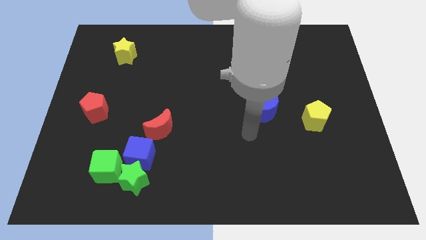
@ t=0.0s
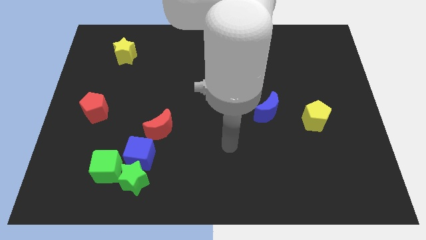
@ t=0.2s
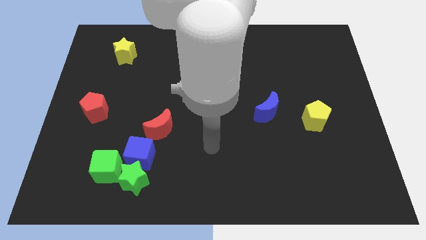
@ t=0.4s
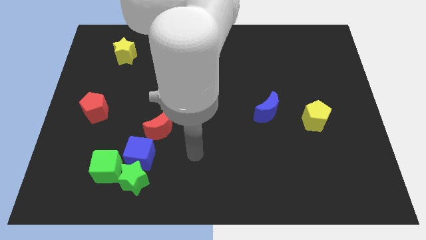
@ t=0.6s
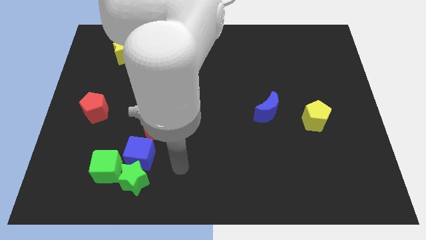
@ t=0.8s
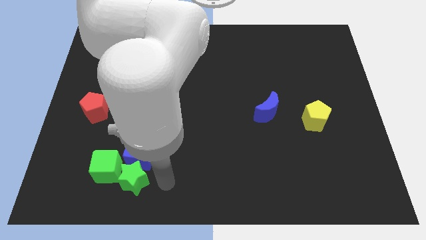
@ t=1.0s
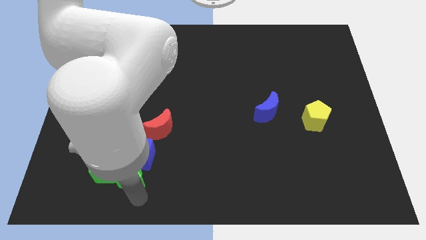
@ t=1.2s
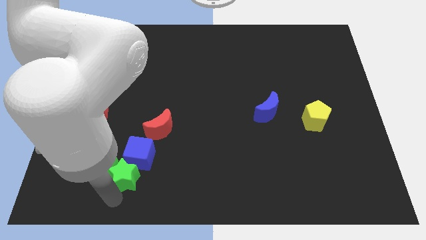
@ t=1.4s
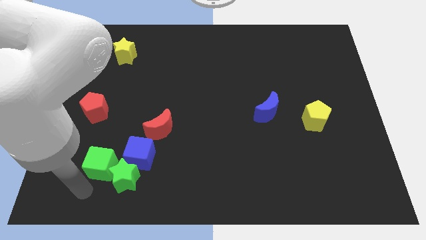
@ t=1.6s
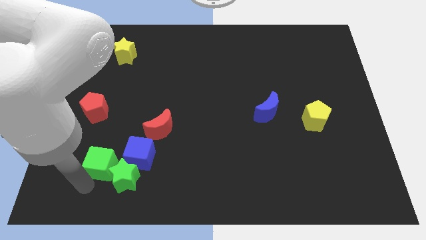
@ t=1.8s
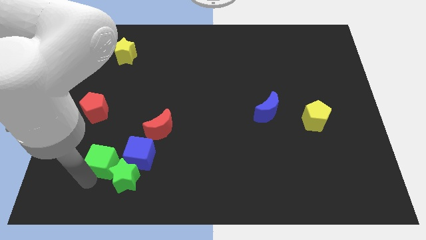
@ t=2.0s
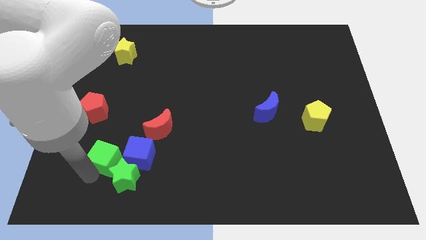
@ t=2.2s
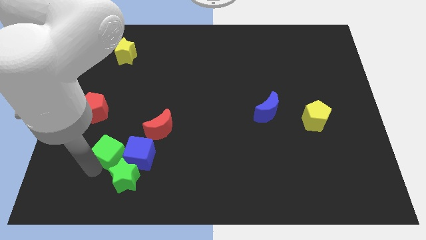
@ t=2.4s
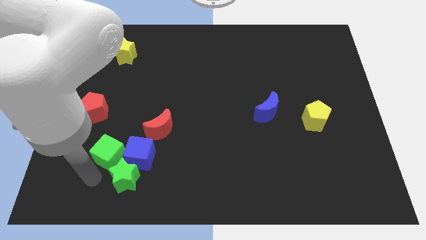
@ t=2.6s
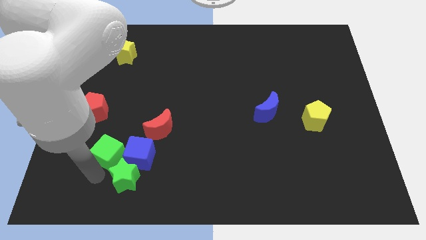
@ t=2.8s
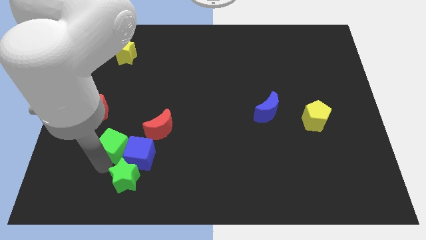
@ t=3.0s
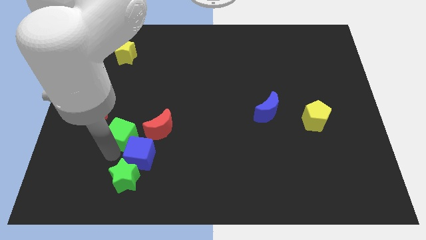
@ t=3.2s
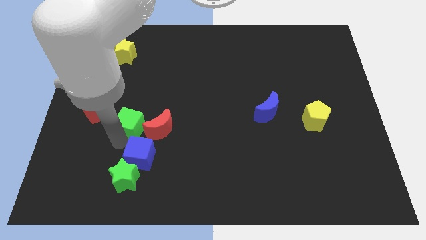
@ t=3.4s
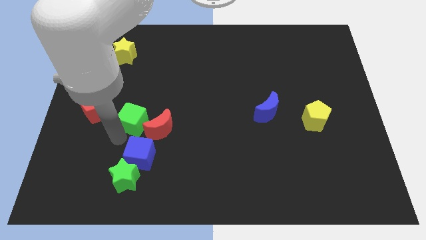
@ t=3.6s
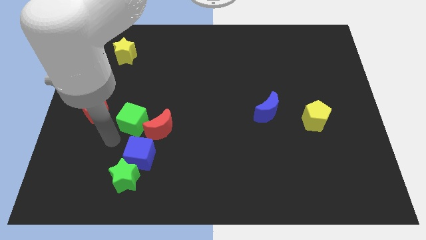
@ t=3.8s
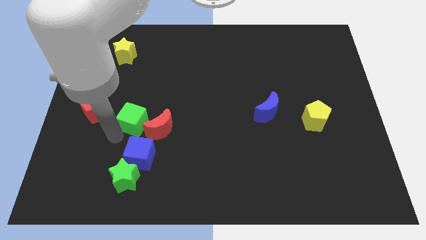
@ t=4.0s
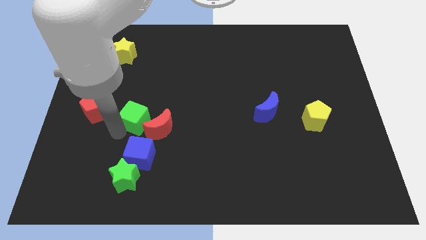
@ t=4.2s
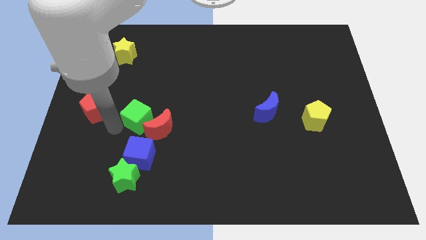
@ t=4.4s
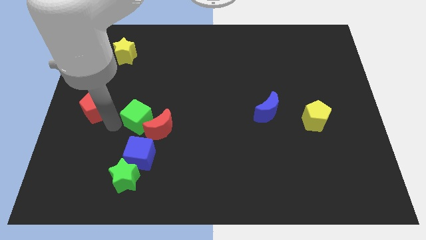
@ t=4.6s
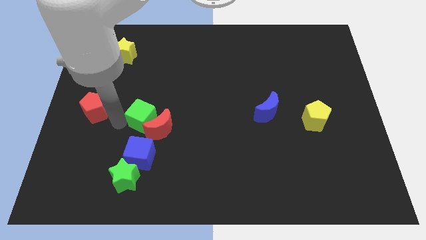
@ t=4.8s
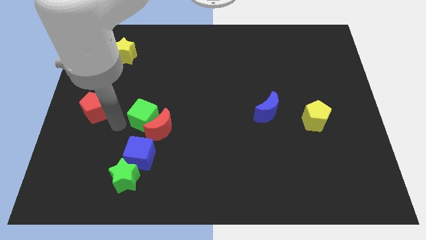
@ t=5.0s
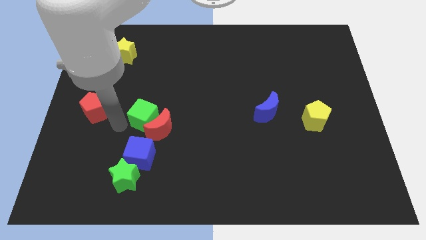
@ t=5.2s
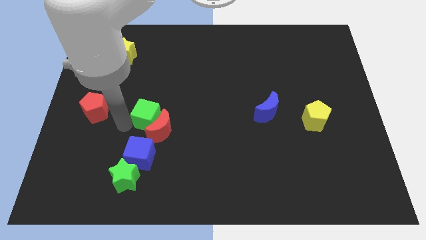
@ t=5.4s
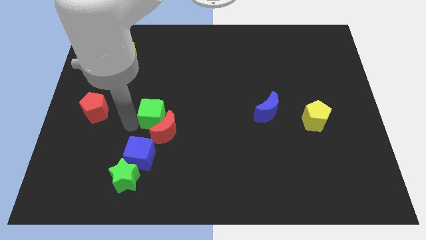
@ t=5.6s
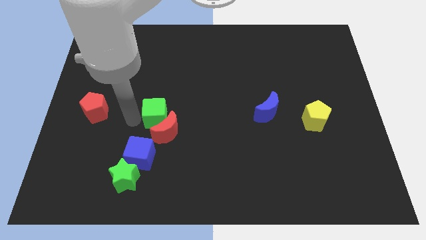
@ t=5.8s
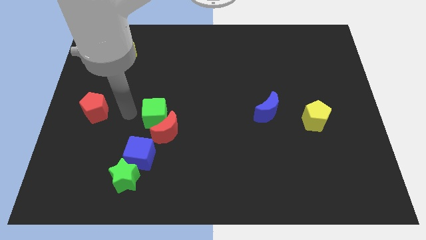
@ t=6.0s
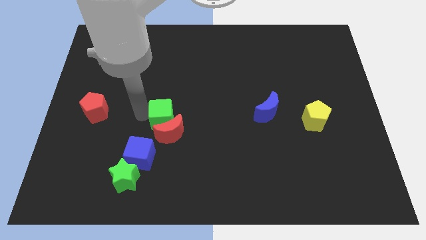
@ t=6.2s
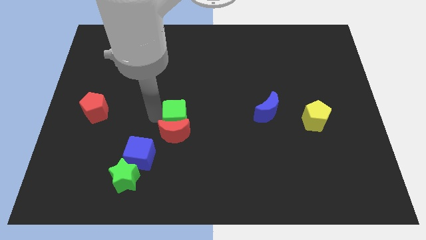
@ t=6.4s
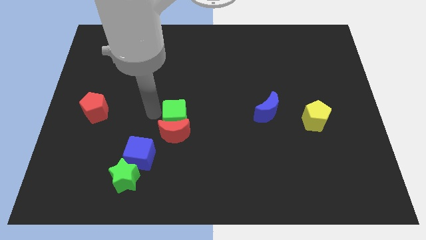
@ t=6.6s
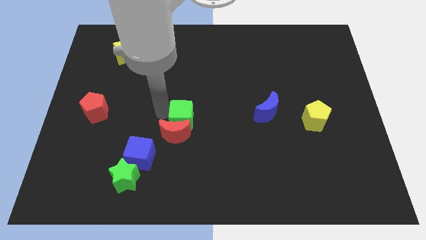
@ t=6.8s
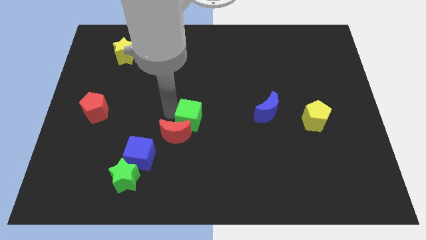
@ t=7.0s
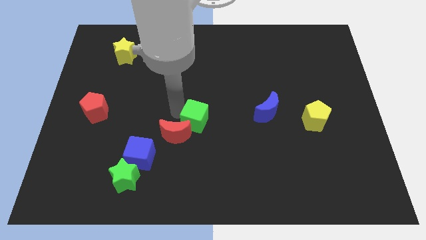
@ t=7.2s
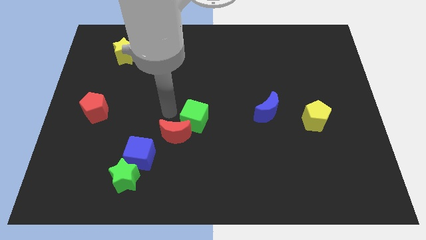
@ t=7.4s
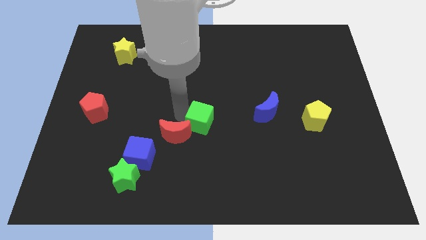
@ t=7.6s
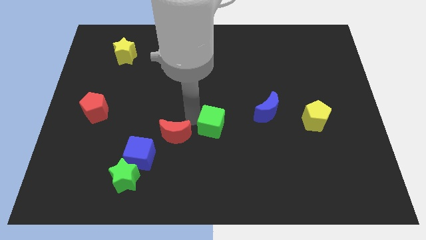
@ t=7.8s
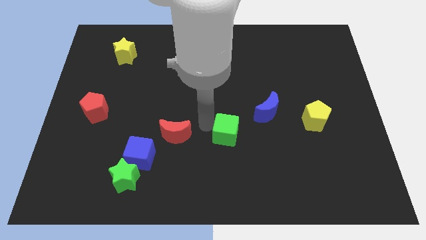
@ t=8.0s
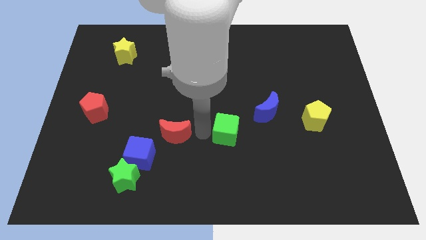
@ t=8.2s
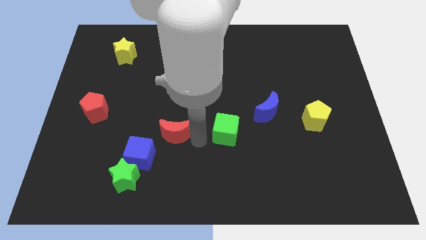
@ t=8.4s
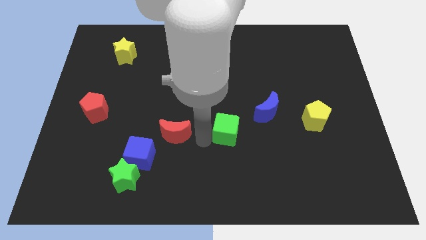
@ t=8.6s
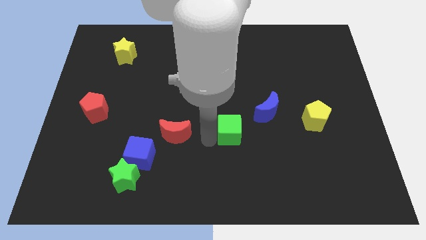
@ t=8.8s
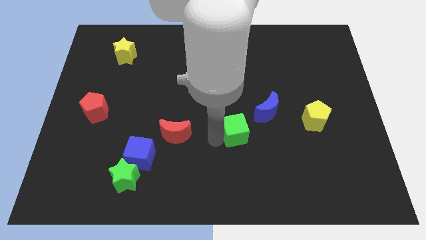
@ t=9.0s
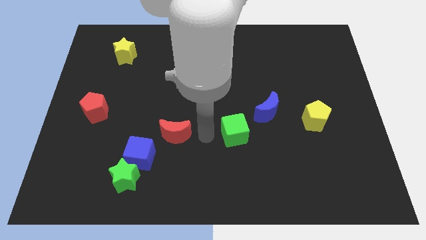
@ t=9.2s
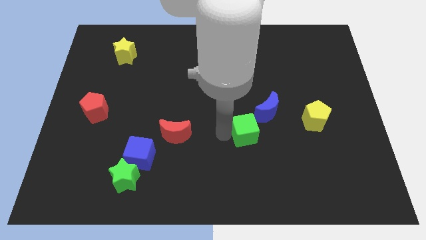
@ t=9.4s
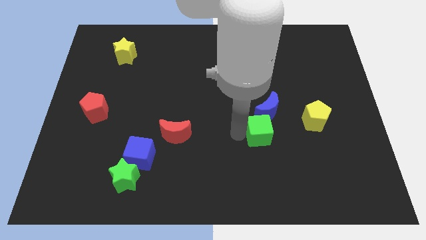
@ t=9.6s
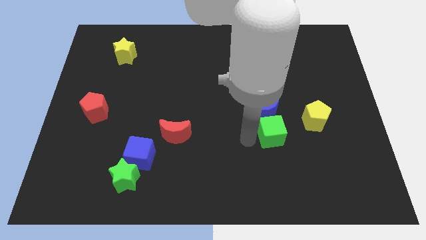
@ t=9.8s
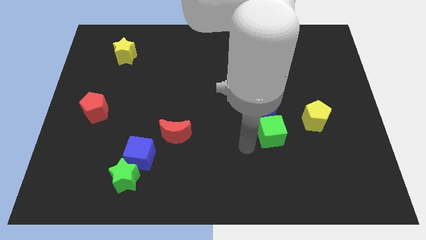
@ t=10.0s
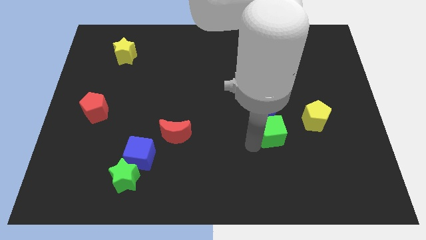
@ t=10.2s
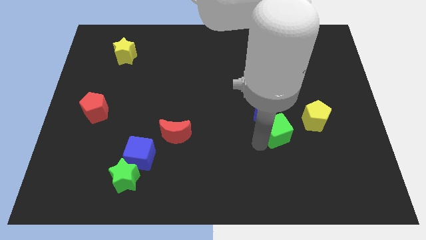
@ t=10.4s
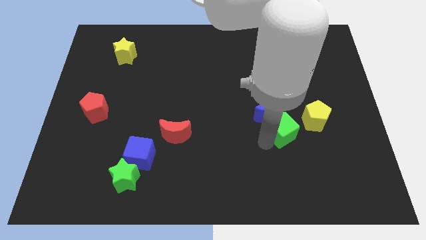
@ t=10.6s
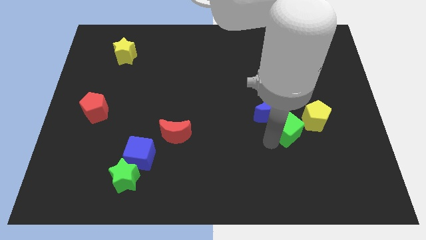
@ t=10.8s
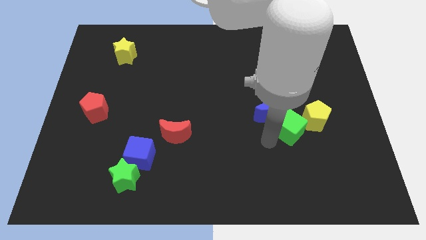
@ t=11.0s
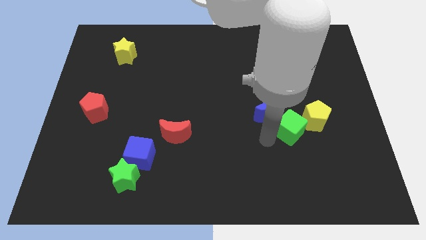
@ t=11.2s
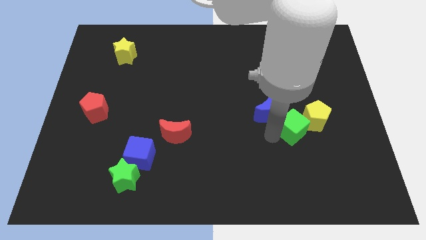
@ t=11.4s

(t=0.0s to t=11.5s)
put the green cube close to the yellow pentagon
